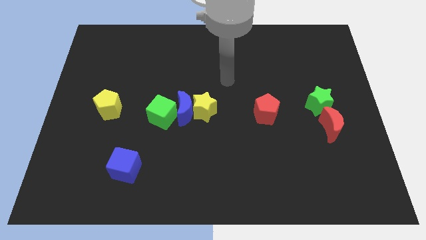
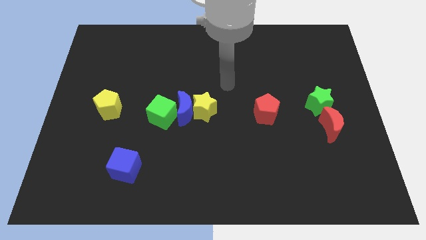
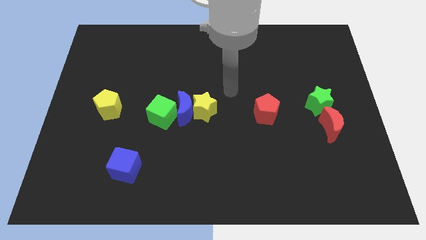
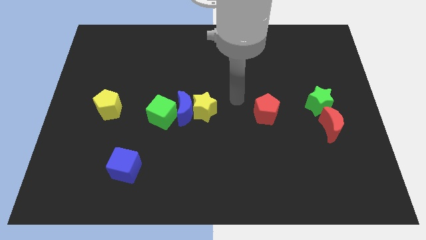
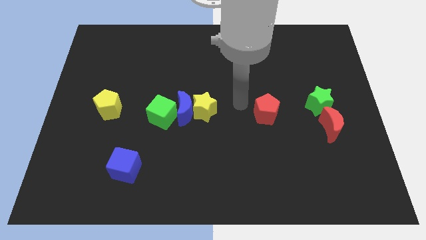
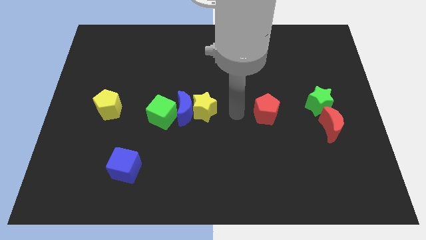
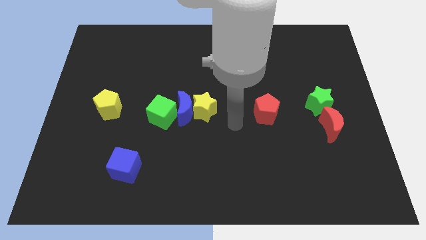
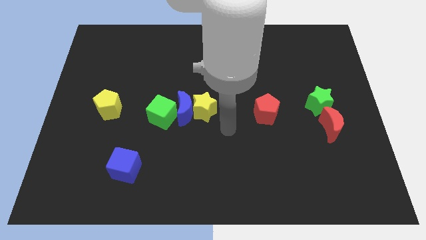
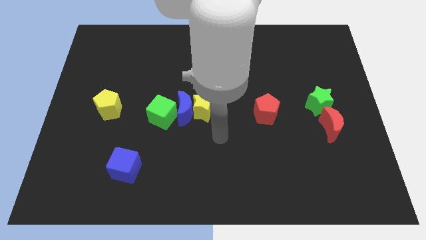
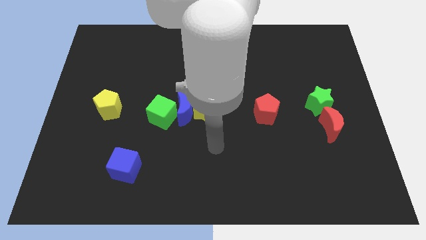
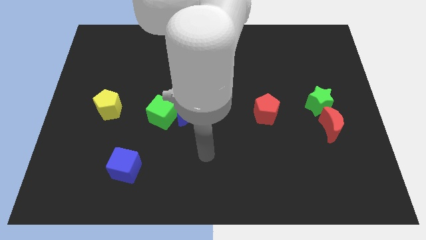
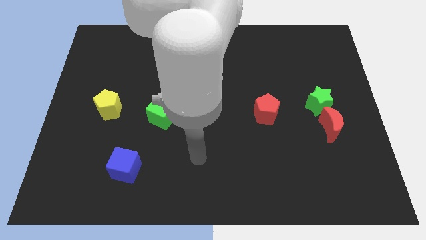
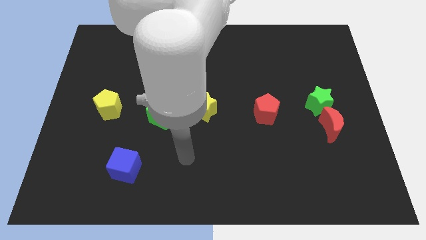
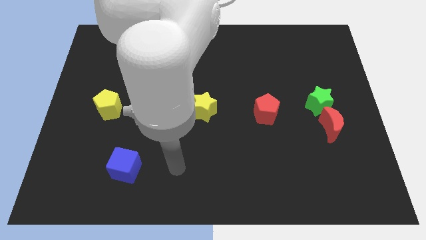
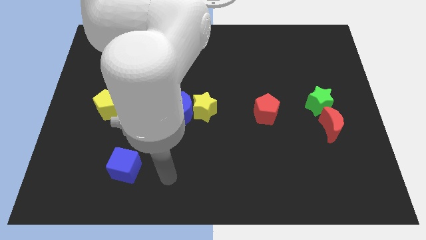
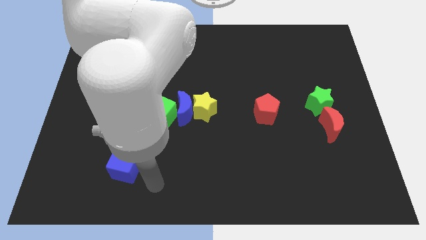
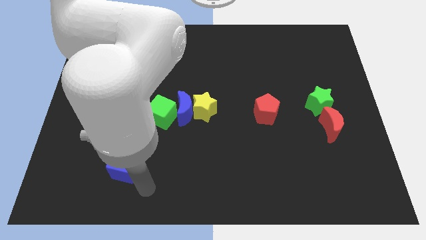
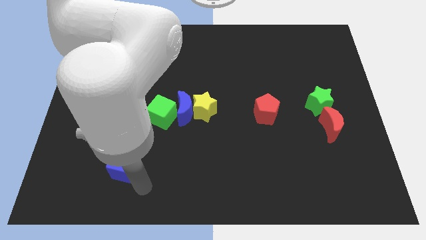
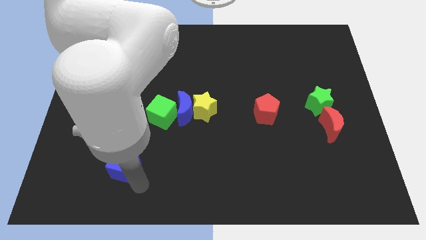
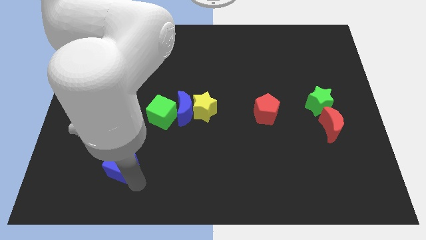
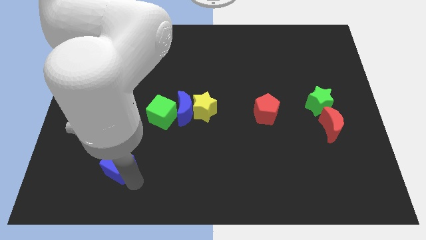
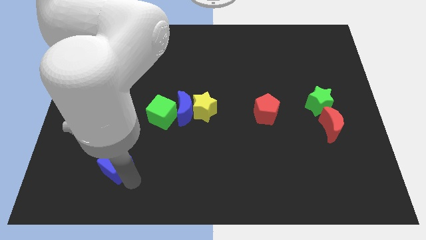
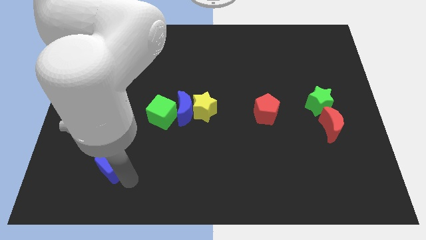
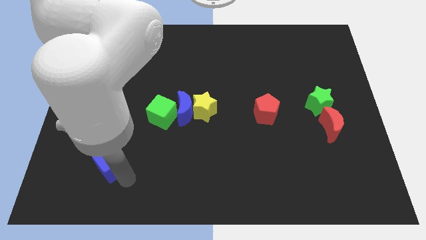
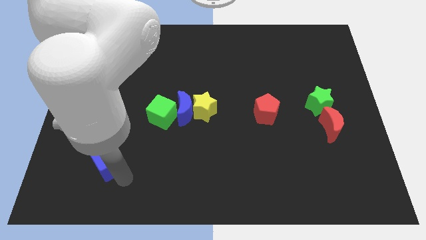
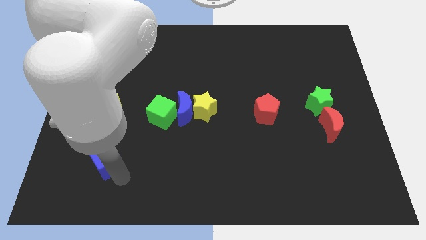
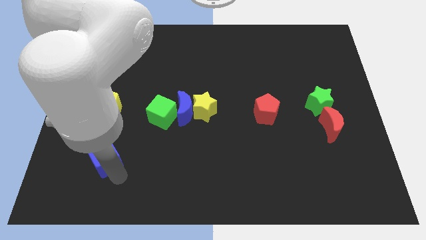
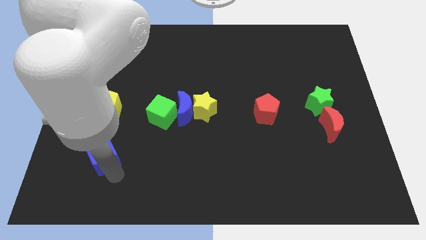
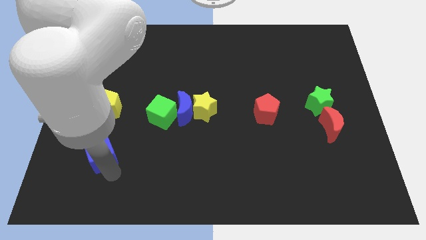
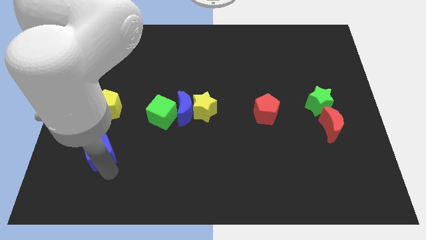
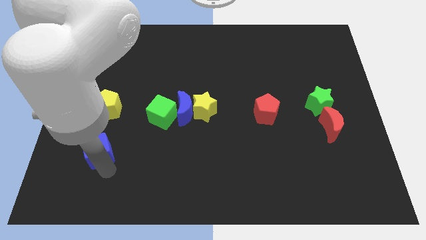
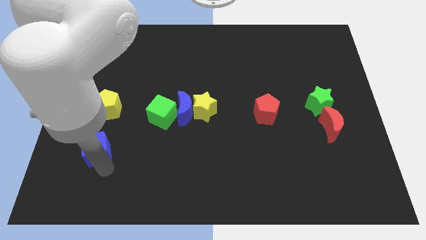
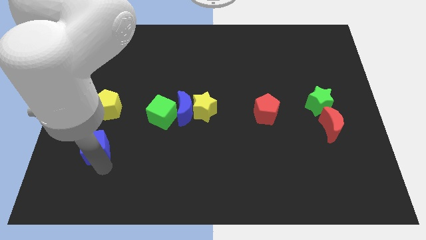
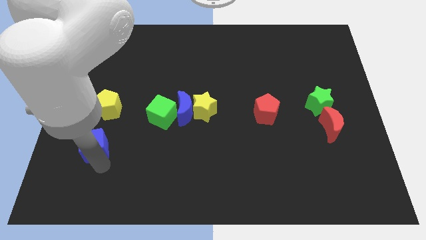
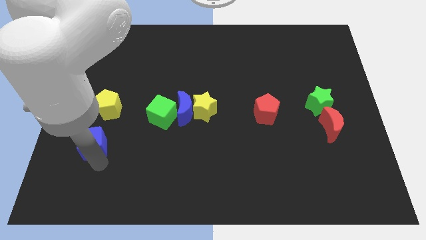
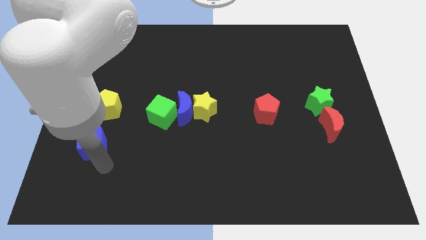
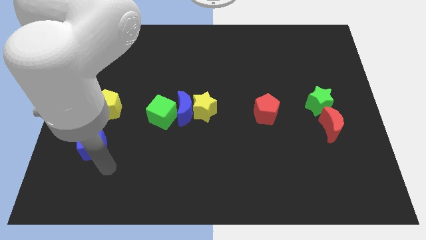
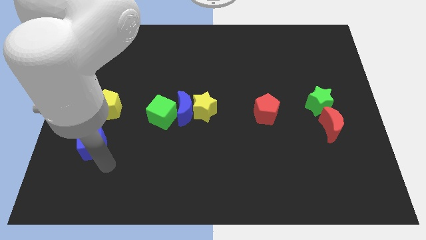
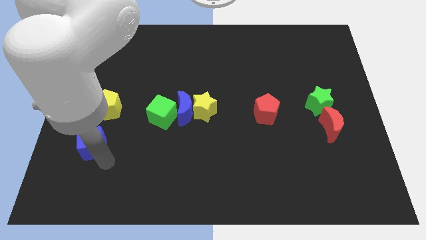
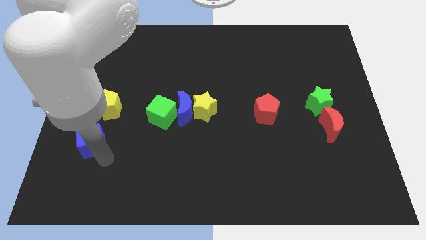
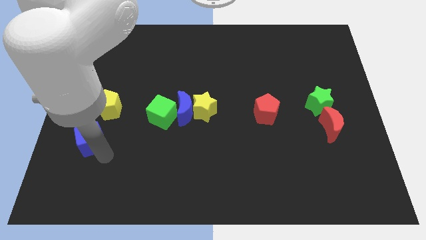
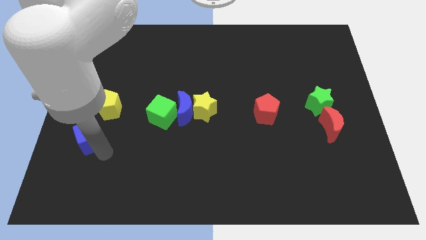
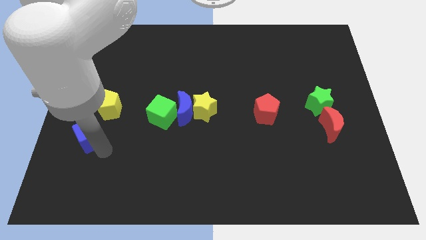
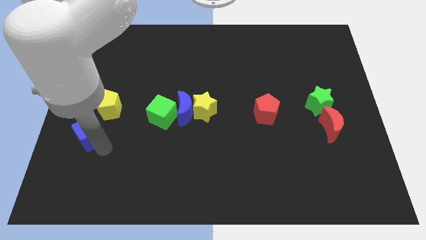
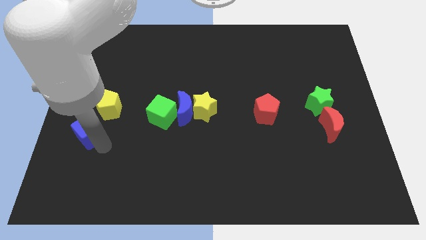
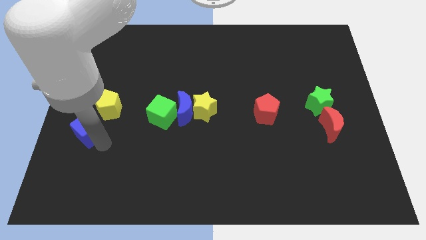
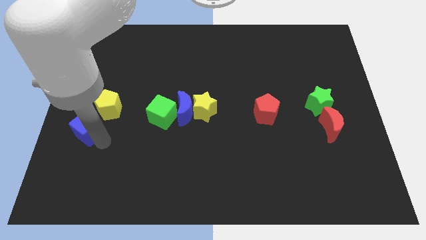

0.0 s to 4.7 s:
move the blue cube to the center left

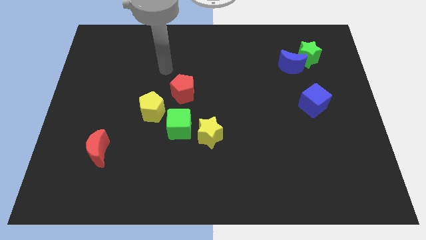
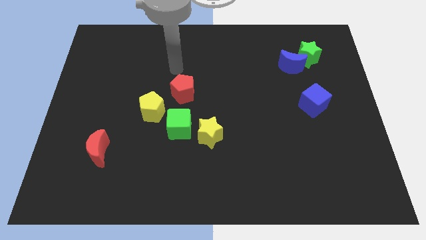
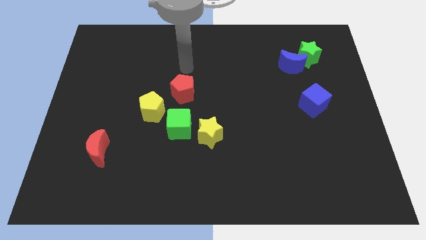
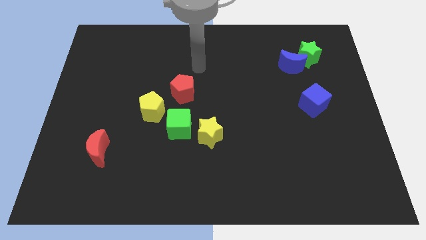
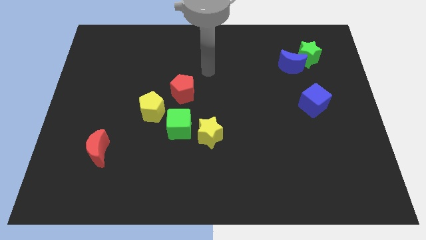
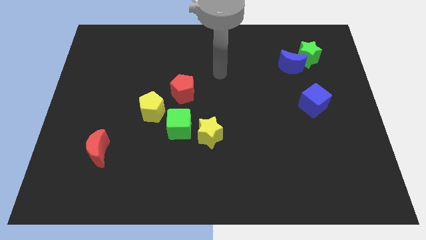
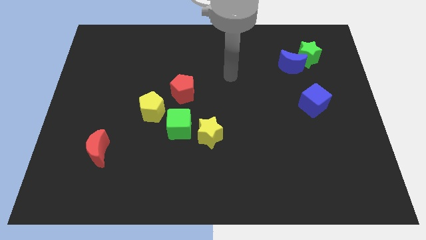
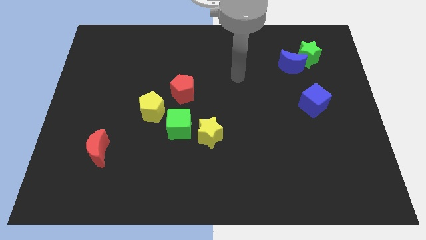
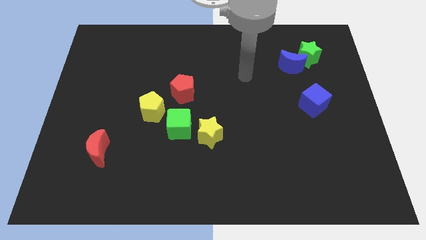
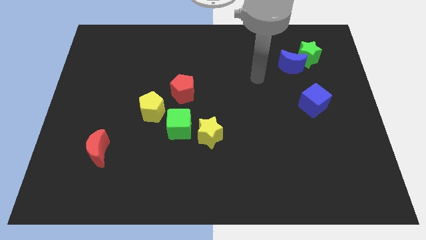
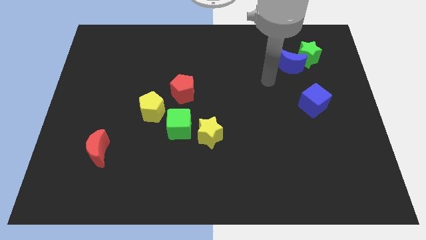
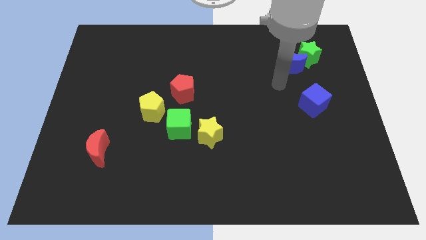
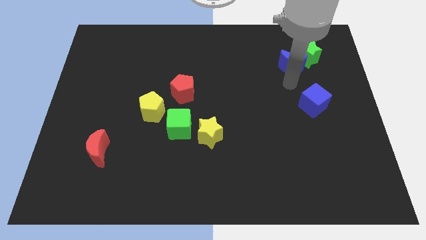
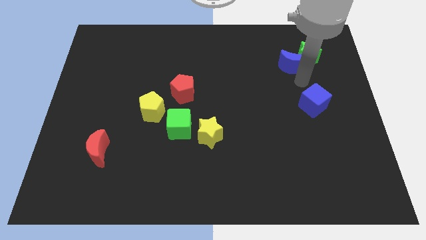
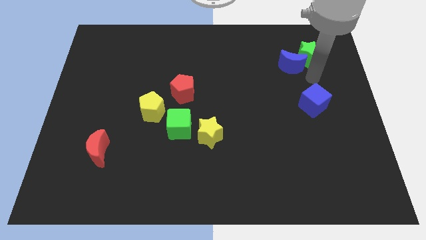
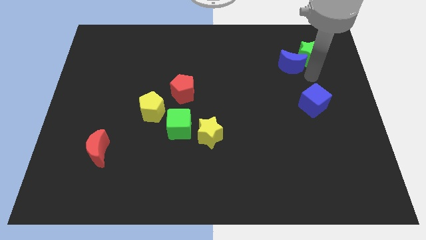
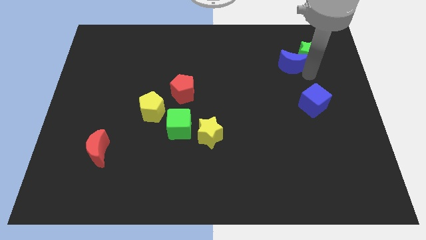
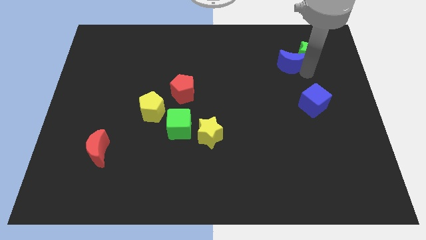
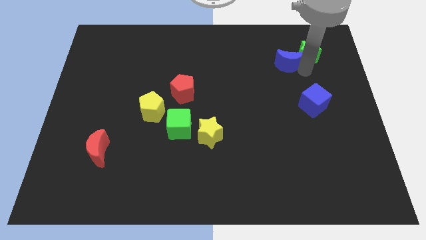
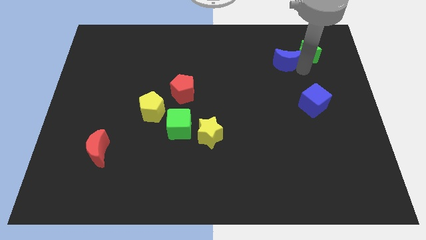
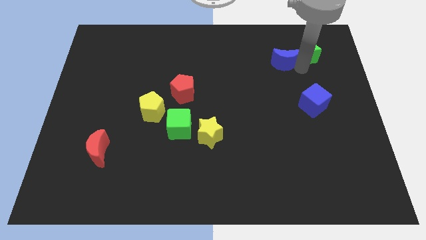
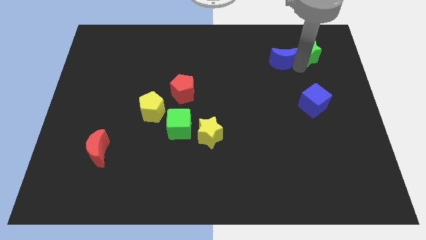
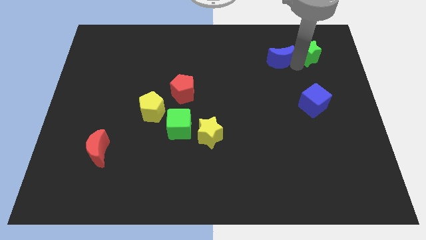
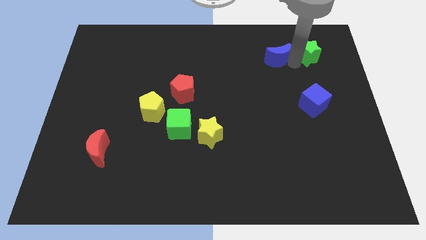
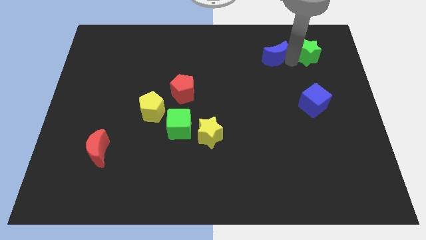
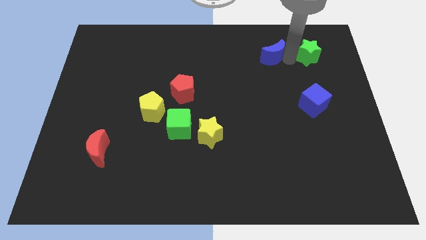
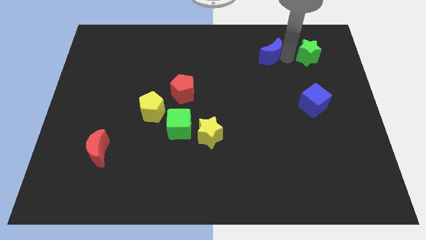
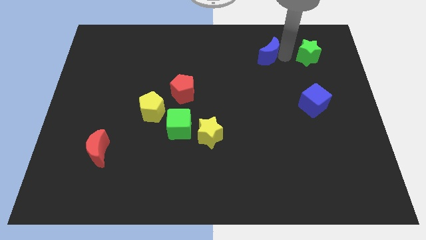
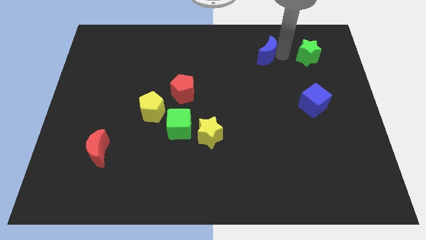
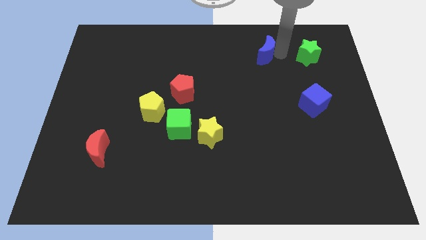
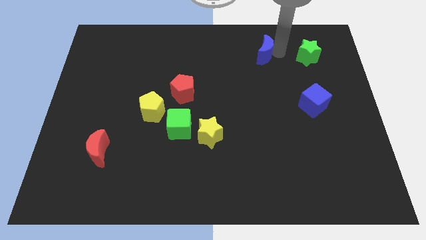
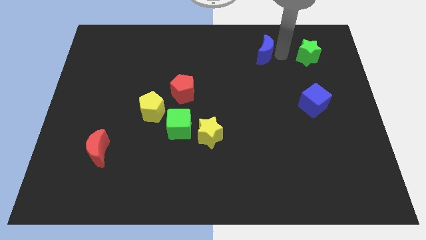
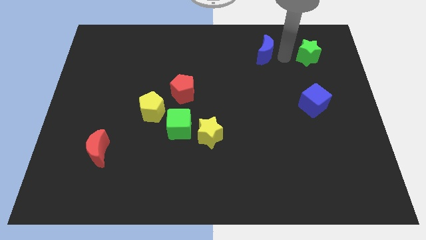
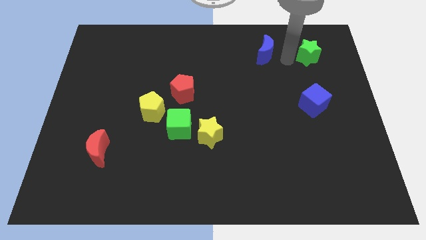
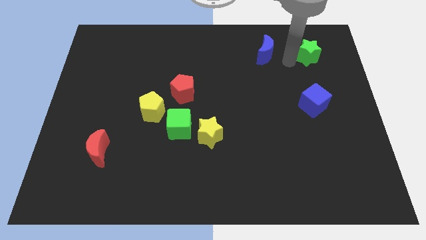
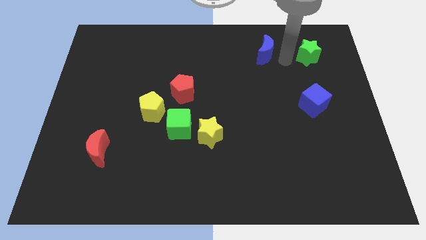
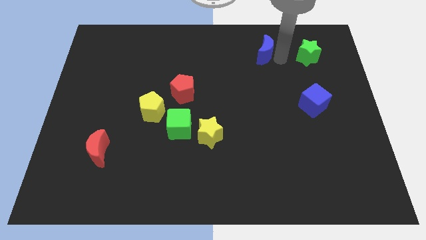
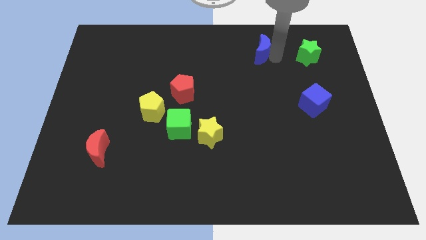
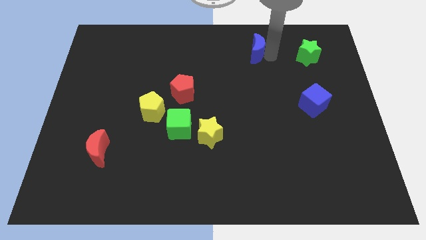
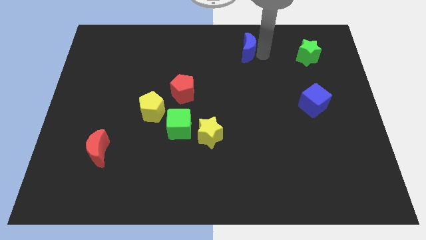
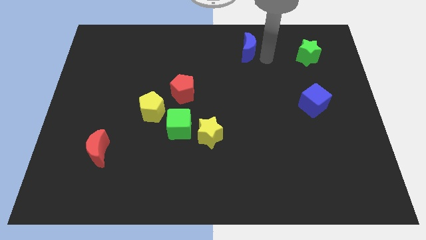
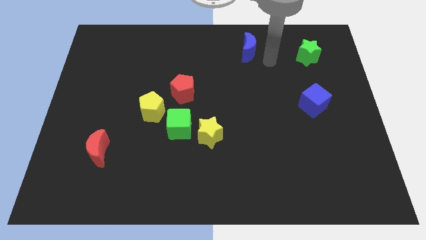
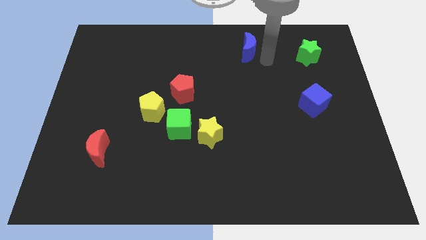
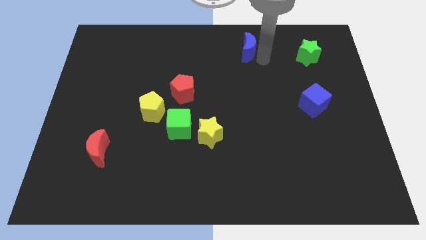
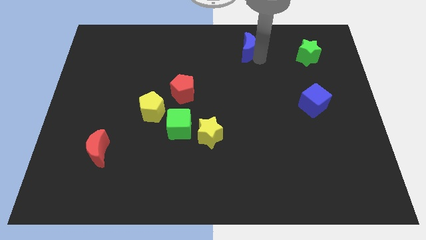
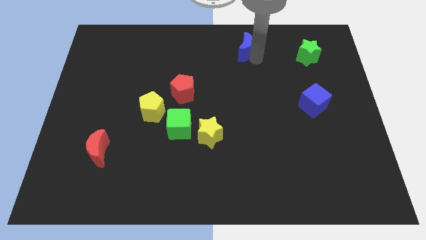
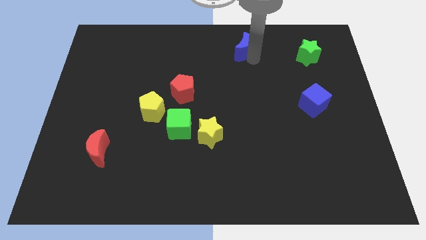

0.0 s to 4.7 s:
move the blue moon to the towards your base
